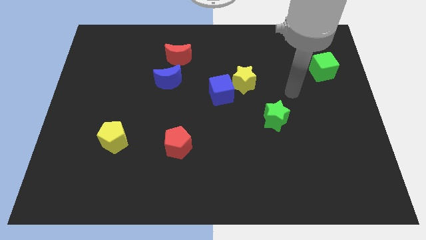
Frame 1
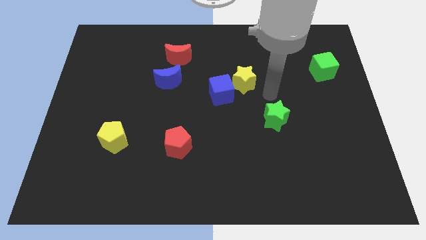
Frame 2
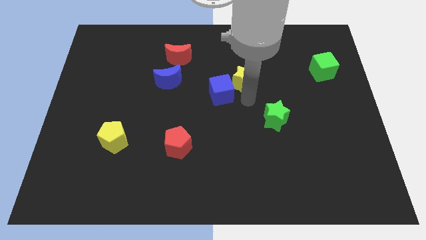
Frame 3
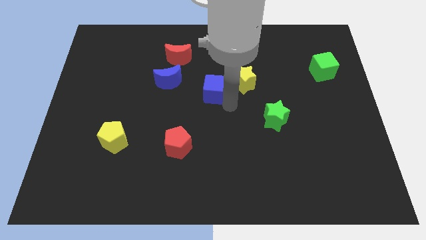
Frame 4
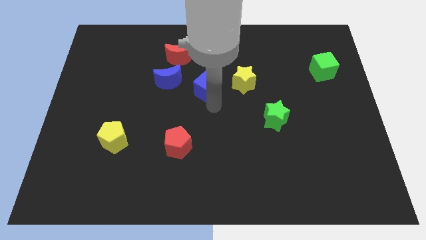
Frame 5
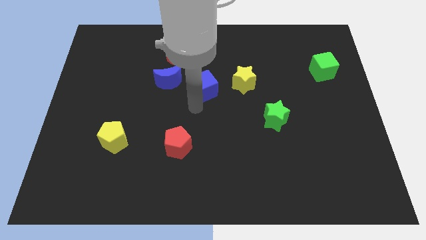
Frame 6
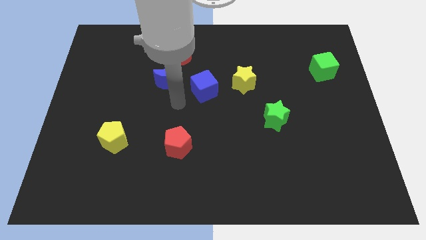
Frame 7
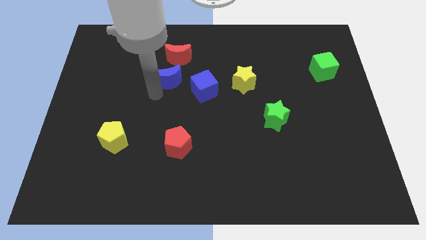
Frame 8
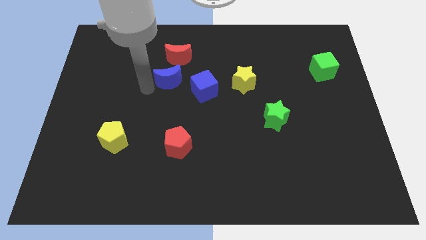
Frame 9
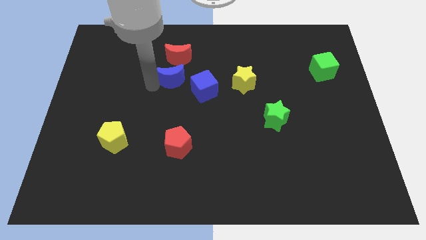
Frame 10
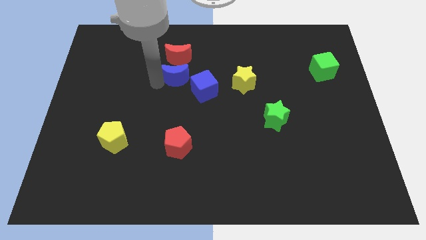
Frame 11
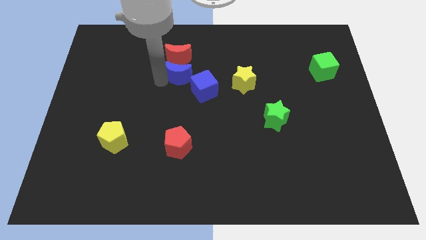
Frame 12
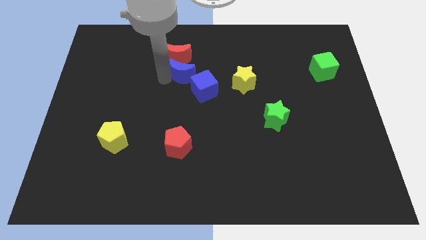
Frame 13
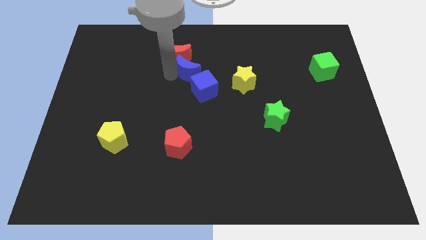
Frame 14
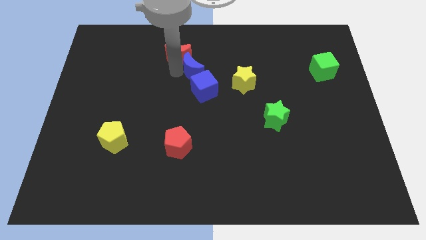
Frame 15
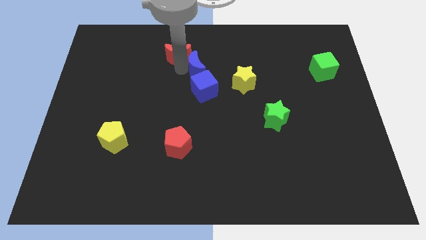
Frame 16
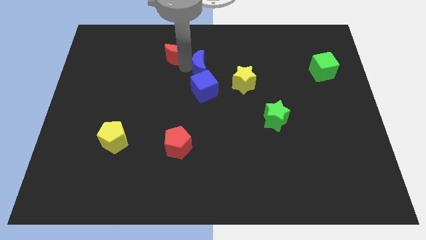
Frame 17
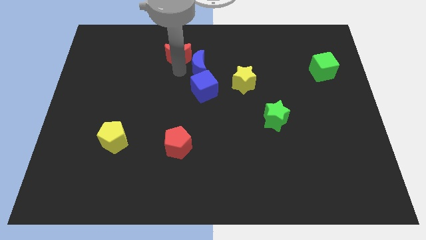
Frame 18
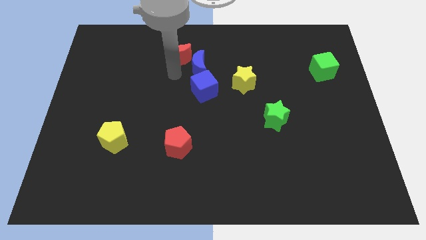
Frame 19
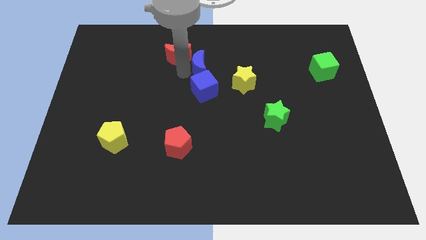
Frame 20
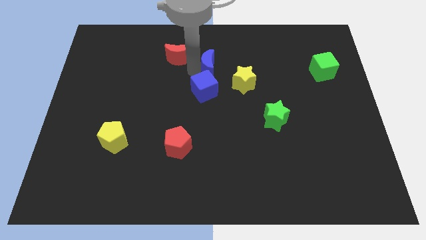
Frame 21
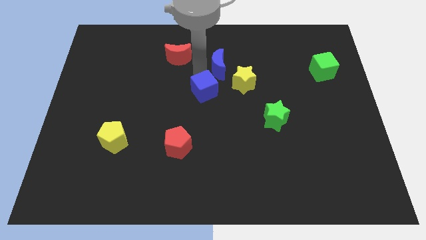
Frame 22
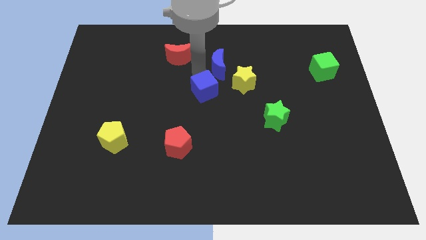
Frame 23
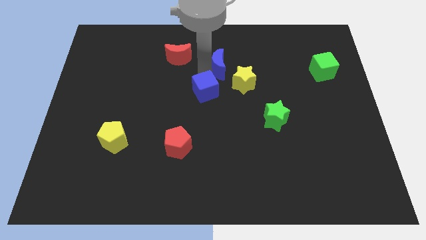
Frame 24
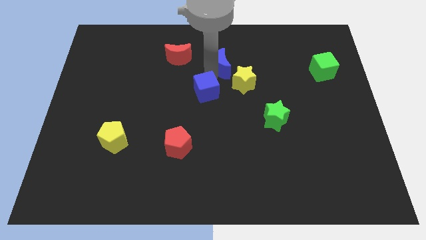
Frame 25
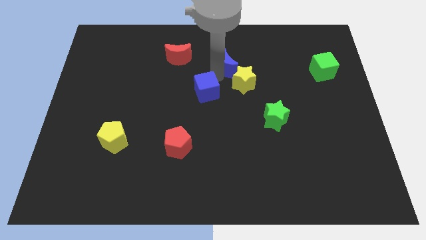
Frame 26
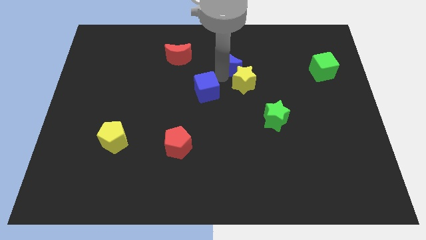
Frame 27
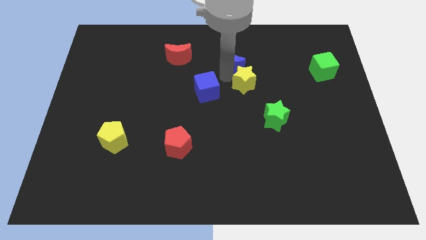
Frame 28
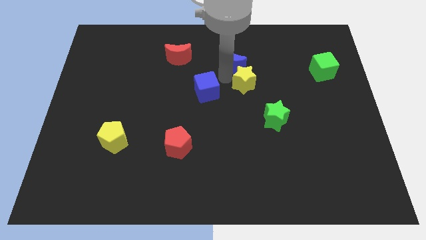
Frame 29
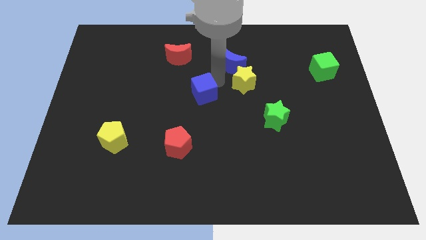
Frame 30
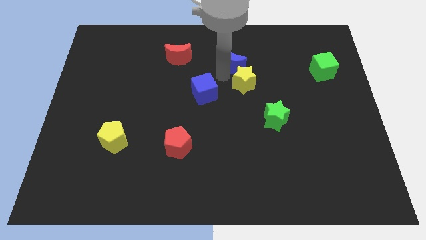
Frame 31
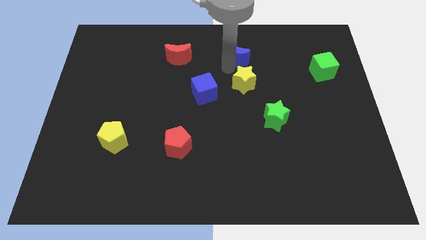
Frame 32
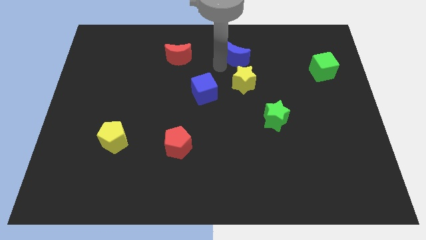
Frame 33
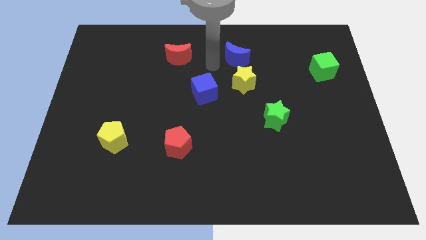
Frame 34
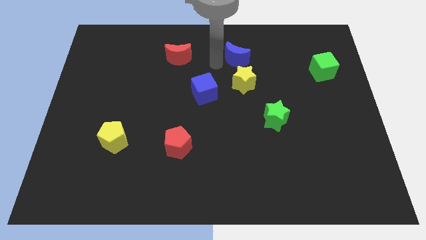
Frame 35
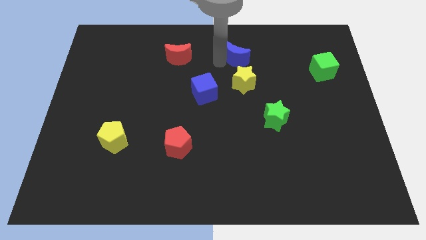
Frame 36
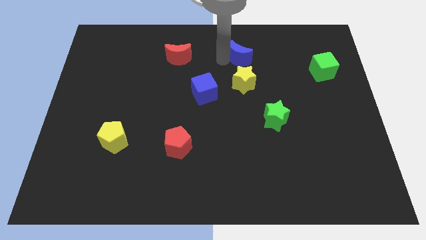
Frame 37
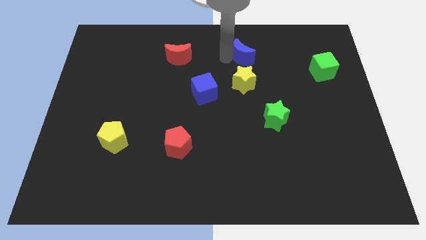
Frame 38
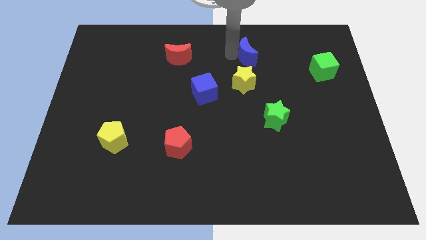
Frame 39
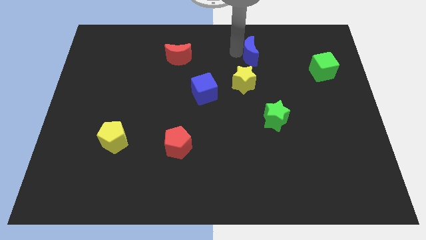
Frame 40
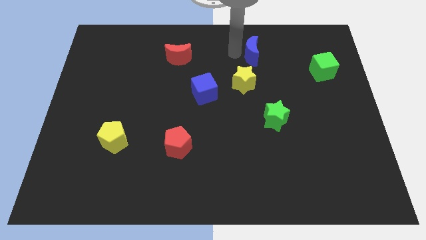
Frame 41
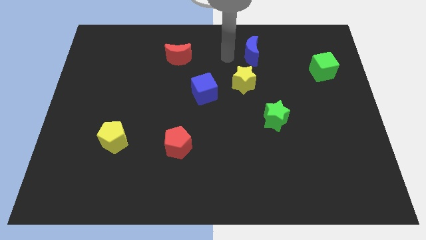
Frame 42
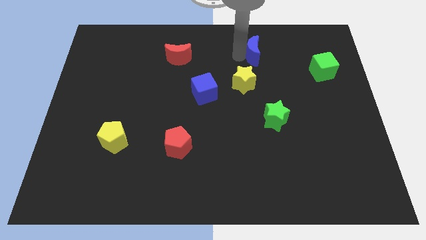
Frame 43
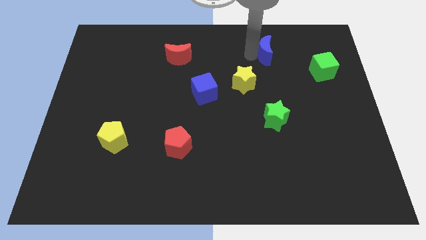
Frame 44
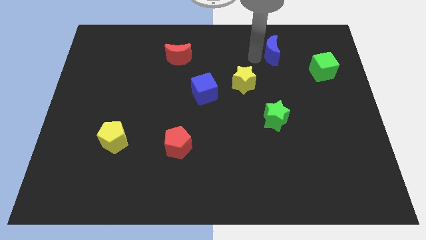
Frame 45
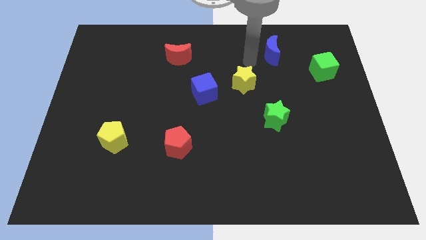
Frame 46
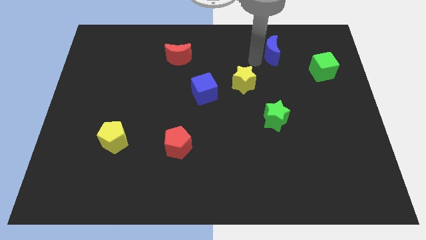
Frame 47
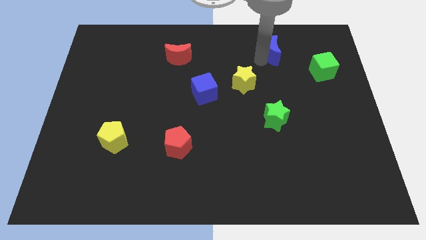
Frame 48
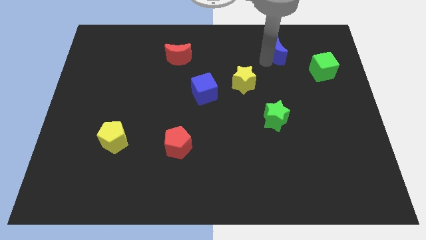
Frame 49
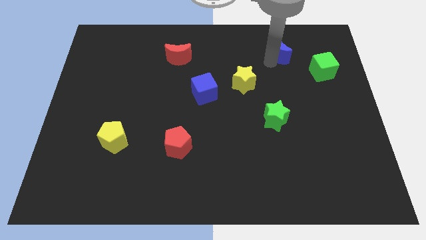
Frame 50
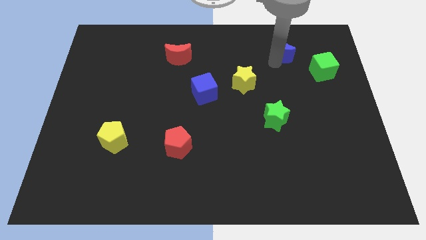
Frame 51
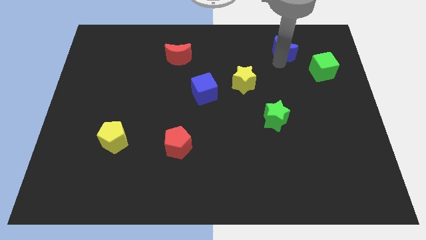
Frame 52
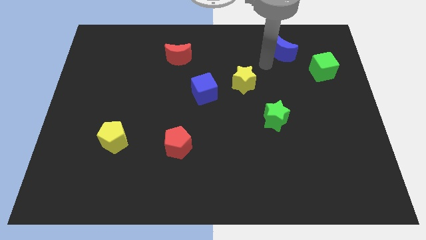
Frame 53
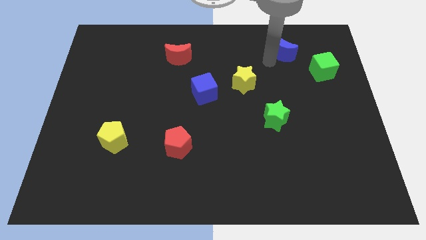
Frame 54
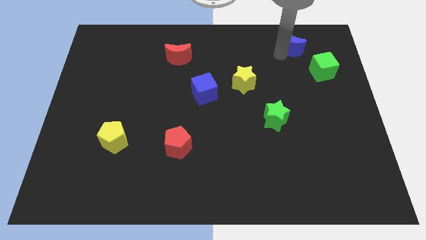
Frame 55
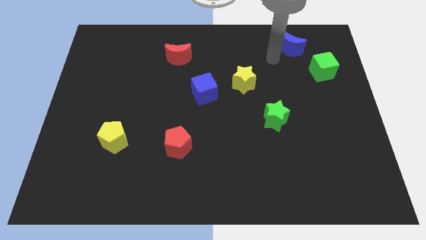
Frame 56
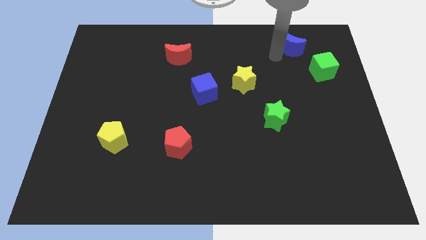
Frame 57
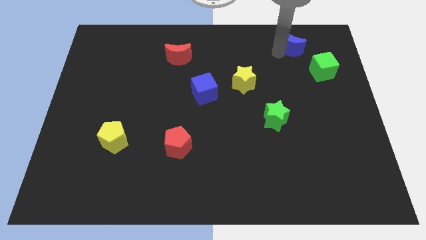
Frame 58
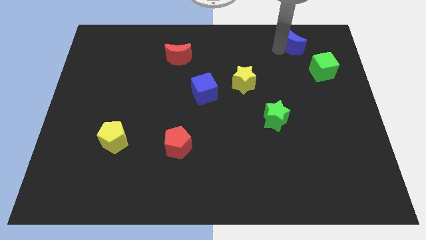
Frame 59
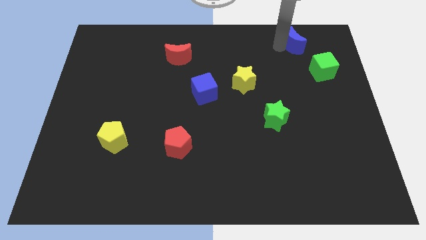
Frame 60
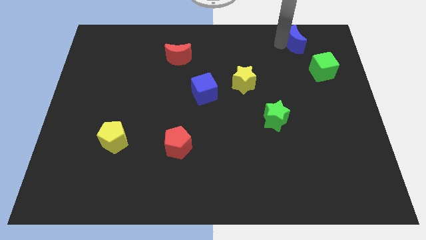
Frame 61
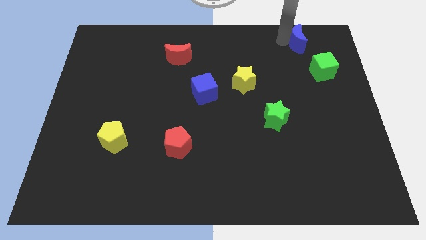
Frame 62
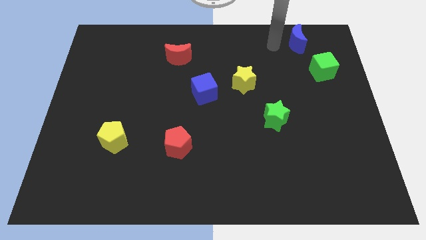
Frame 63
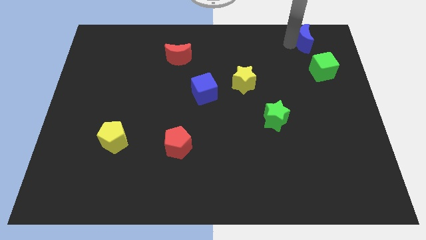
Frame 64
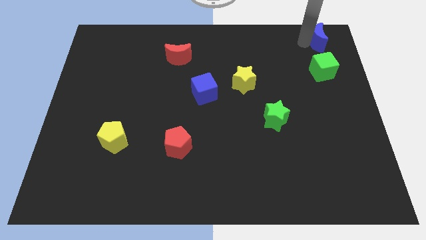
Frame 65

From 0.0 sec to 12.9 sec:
push the blue moon to the top right of the board

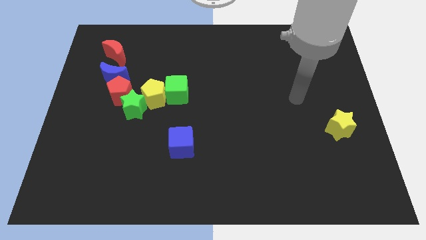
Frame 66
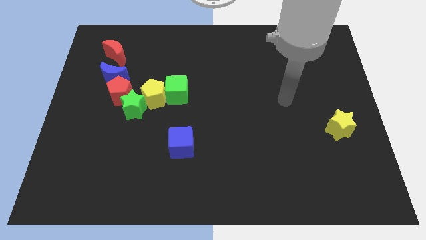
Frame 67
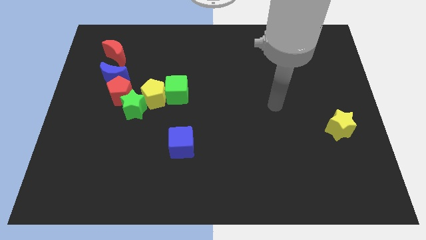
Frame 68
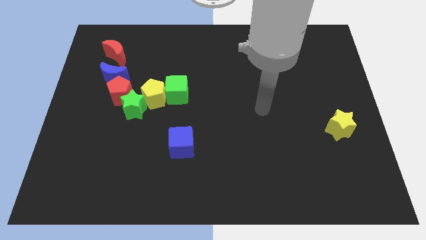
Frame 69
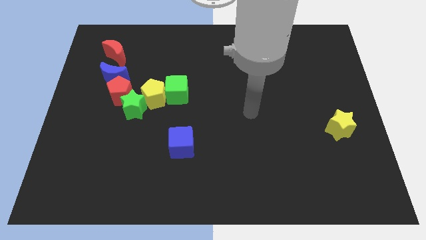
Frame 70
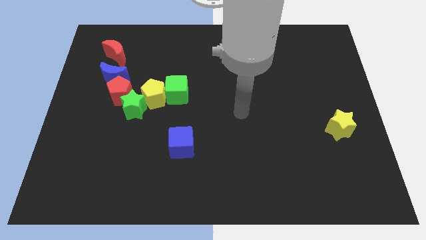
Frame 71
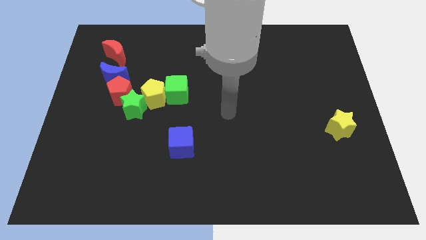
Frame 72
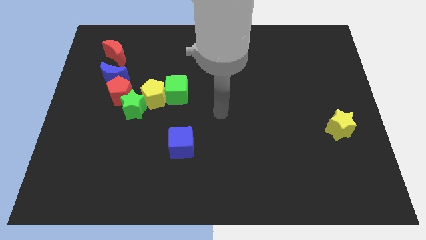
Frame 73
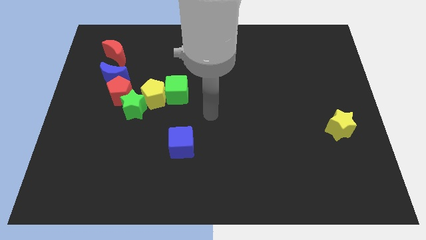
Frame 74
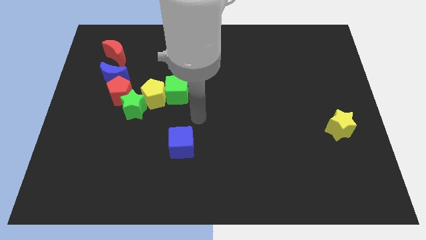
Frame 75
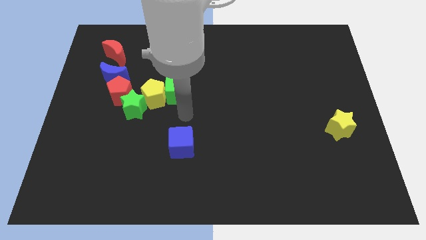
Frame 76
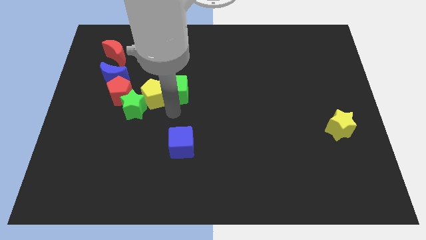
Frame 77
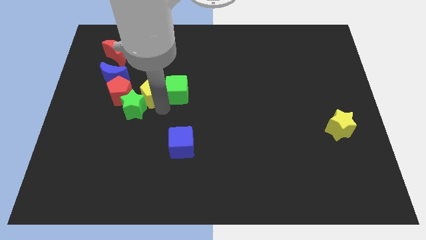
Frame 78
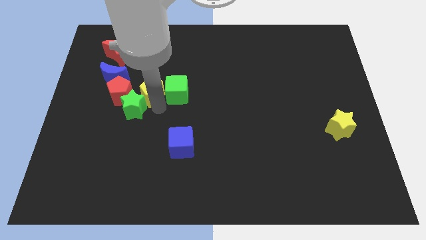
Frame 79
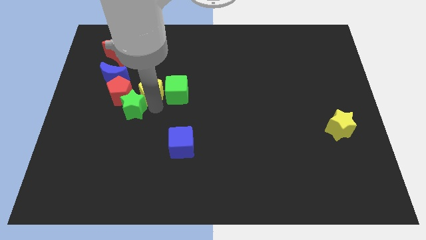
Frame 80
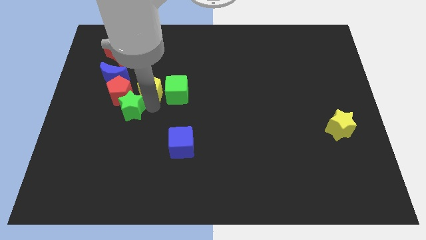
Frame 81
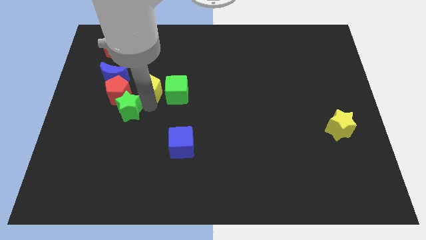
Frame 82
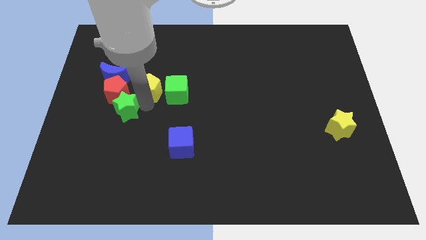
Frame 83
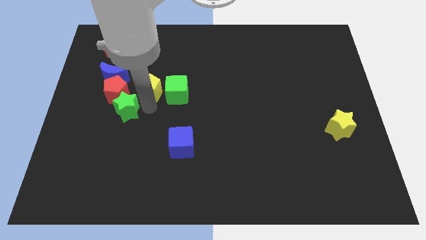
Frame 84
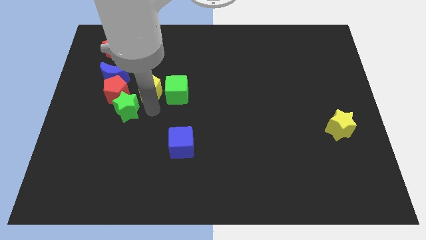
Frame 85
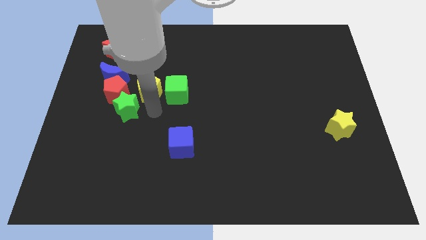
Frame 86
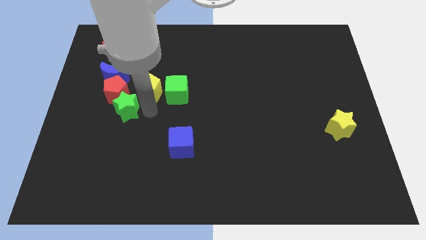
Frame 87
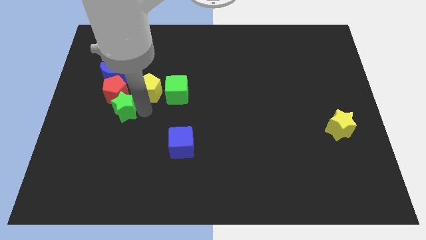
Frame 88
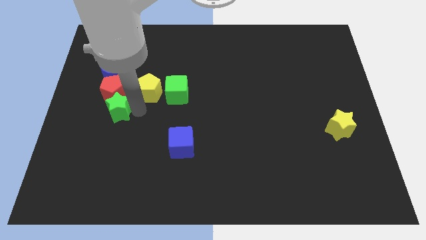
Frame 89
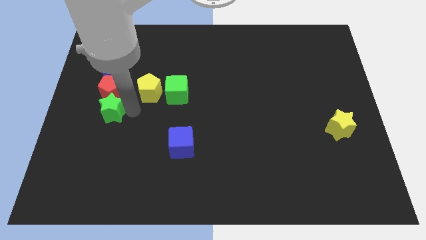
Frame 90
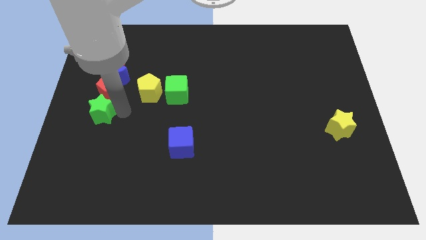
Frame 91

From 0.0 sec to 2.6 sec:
put the green star to the center left
